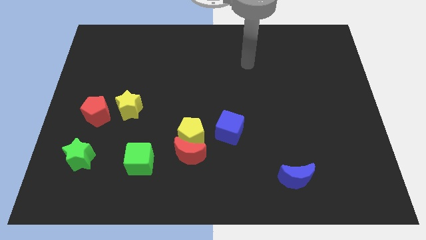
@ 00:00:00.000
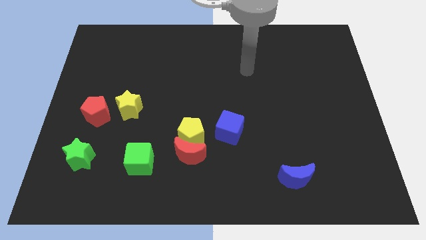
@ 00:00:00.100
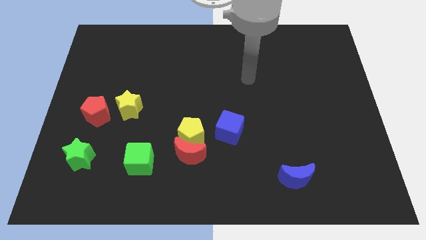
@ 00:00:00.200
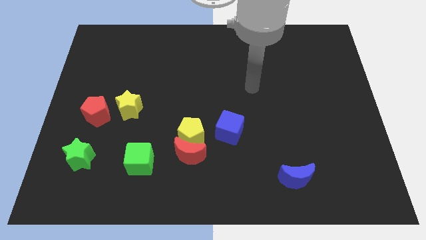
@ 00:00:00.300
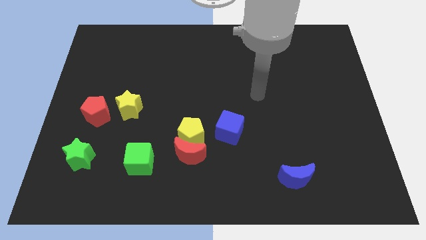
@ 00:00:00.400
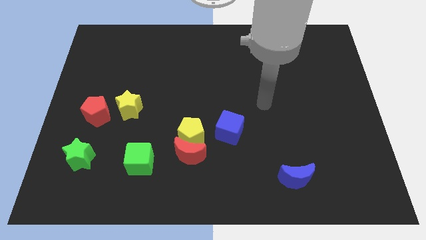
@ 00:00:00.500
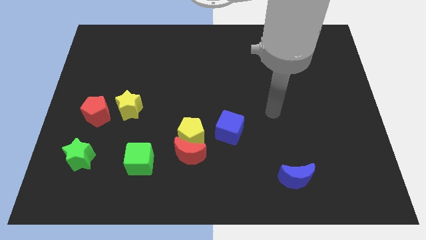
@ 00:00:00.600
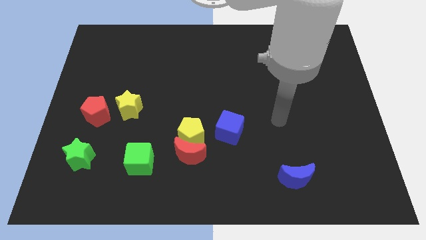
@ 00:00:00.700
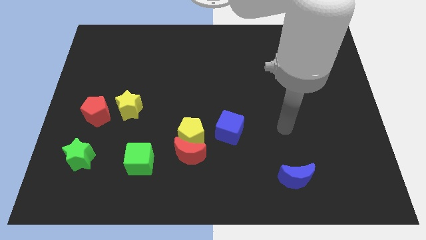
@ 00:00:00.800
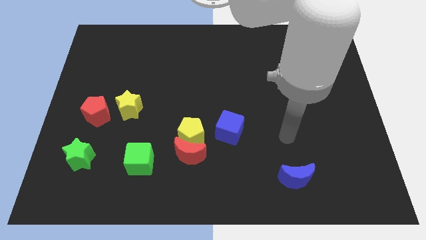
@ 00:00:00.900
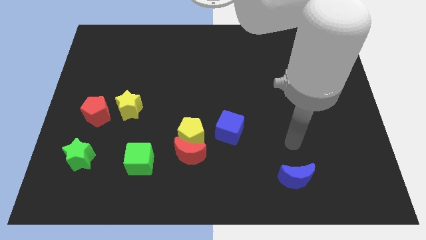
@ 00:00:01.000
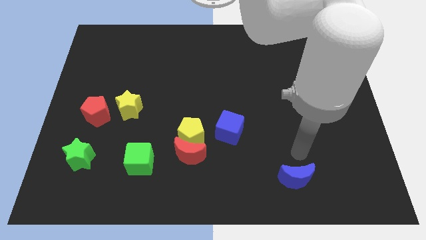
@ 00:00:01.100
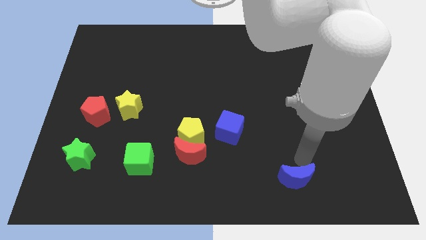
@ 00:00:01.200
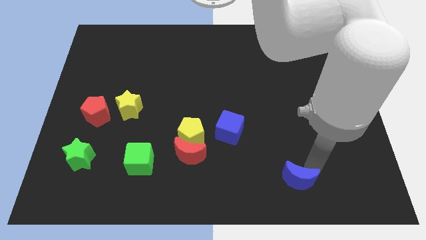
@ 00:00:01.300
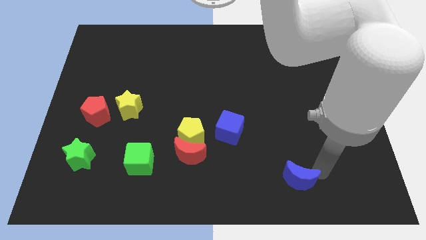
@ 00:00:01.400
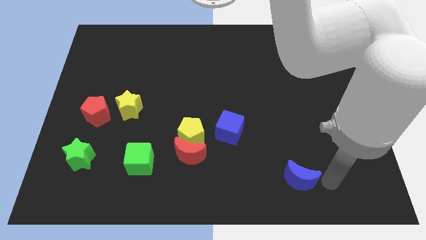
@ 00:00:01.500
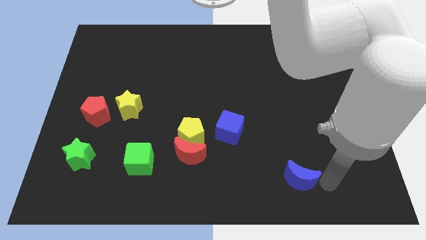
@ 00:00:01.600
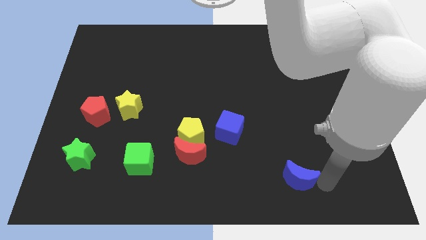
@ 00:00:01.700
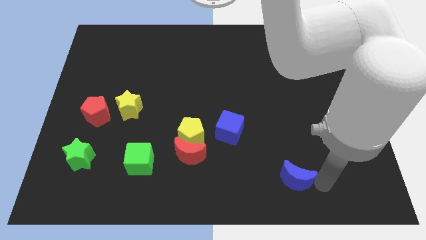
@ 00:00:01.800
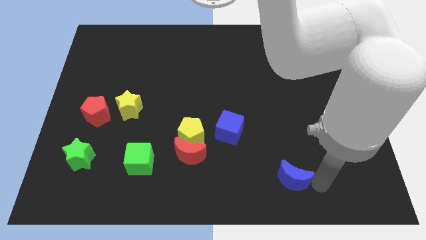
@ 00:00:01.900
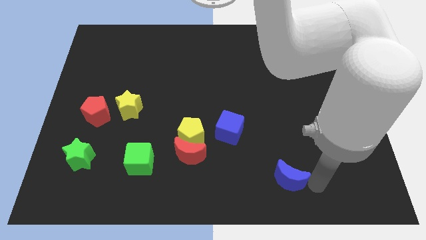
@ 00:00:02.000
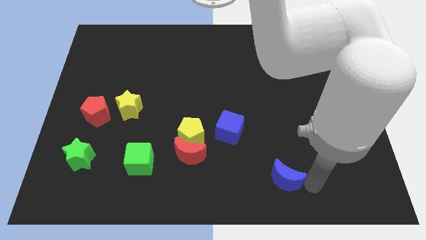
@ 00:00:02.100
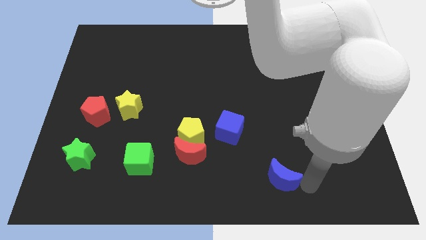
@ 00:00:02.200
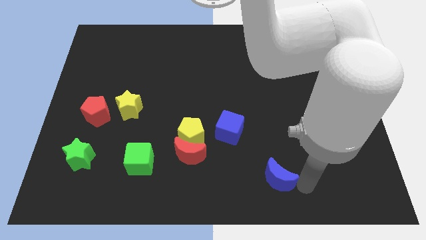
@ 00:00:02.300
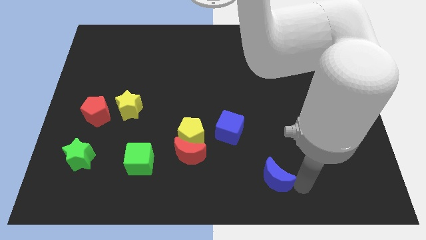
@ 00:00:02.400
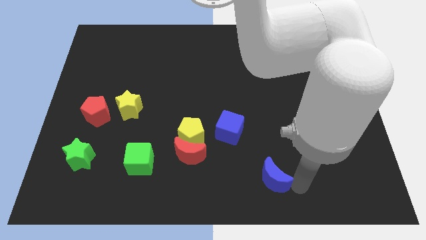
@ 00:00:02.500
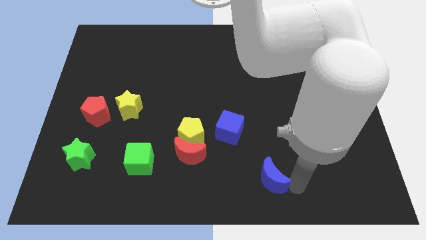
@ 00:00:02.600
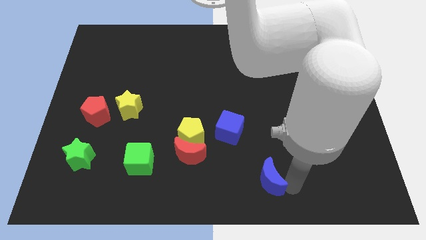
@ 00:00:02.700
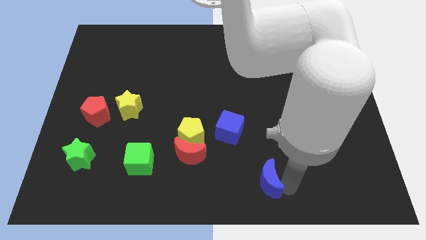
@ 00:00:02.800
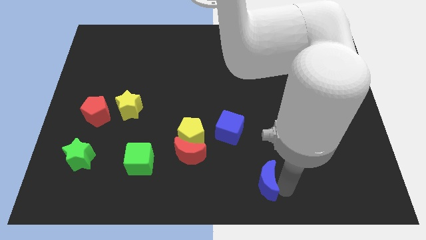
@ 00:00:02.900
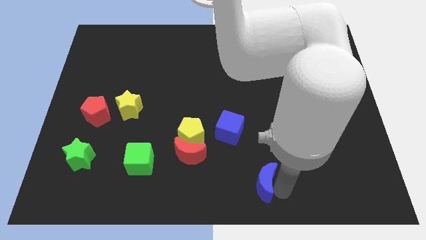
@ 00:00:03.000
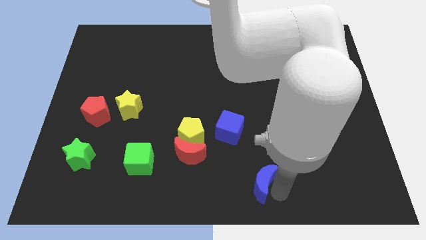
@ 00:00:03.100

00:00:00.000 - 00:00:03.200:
push the blue moon left slightly

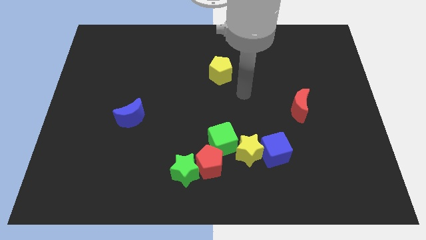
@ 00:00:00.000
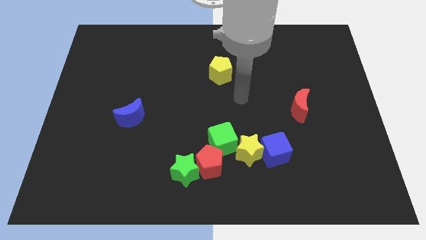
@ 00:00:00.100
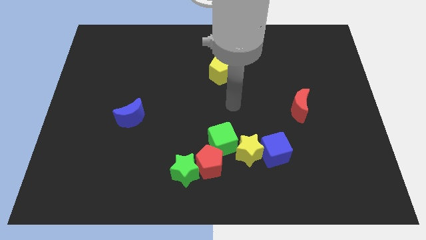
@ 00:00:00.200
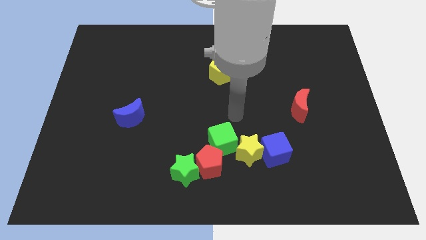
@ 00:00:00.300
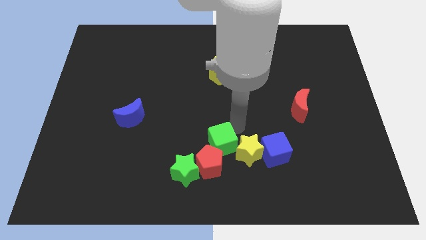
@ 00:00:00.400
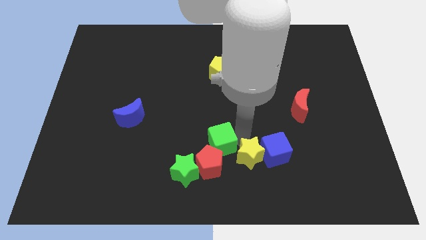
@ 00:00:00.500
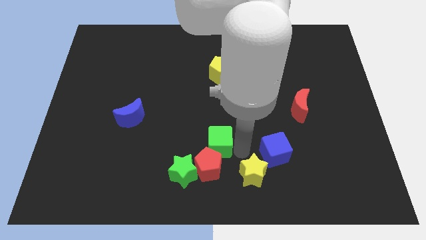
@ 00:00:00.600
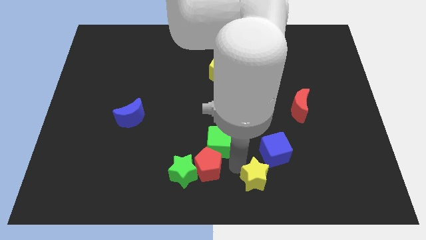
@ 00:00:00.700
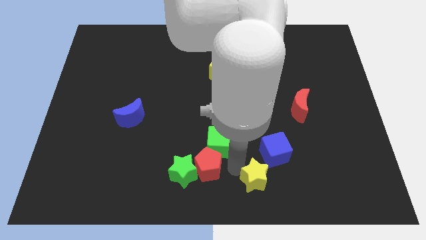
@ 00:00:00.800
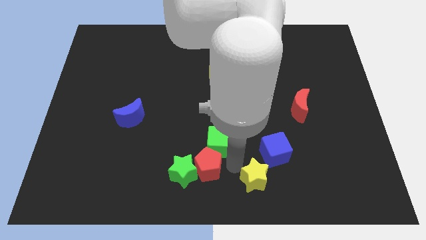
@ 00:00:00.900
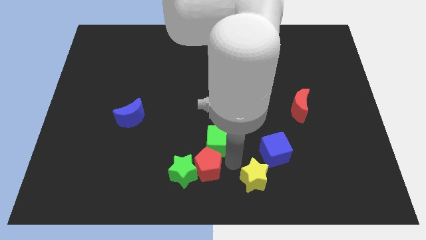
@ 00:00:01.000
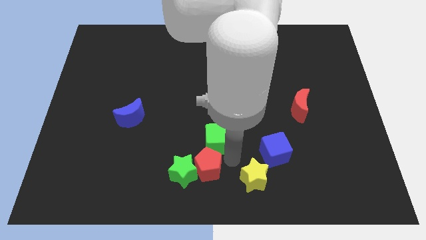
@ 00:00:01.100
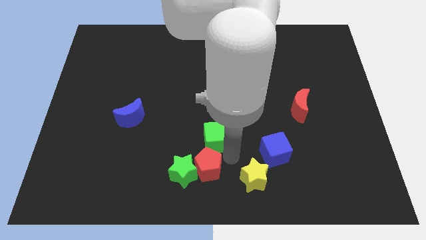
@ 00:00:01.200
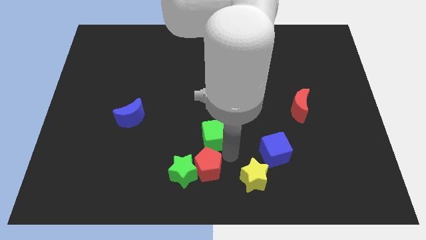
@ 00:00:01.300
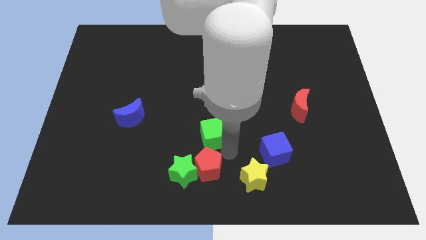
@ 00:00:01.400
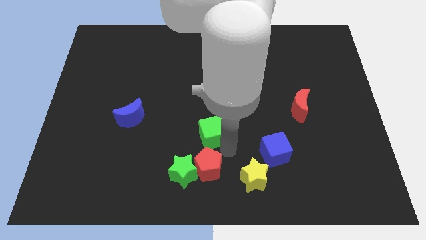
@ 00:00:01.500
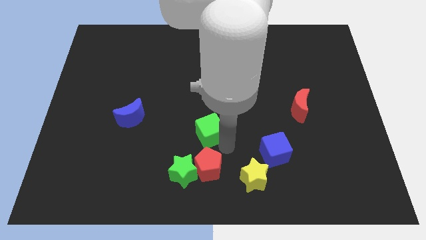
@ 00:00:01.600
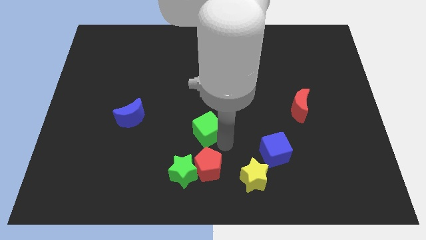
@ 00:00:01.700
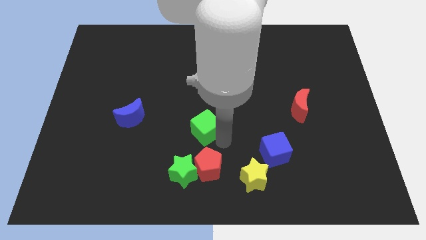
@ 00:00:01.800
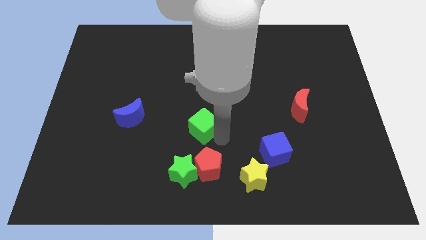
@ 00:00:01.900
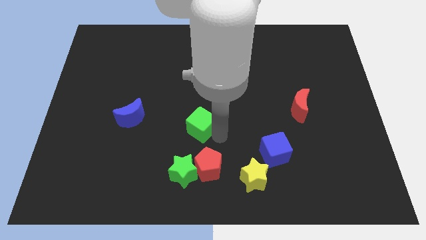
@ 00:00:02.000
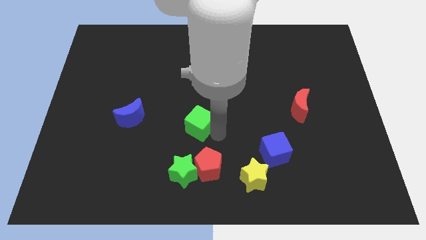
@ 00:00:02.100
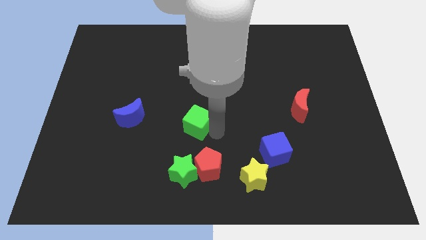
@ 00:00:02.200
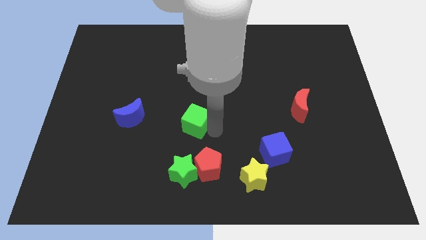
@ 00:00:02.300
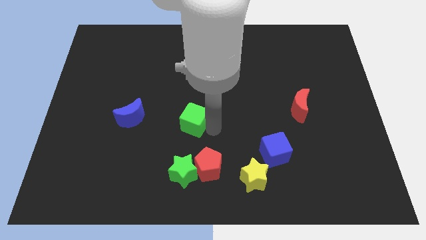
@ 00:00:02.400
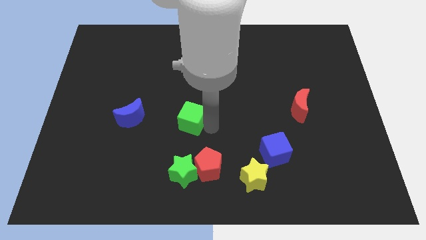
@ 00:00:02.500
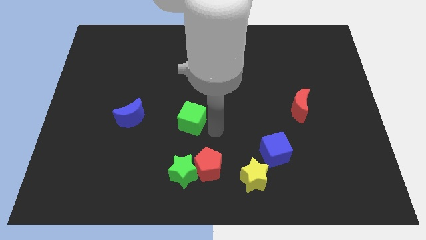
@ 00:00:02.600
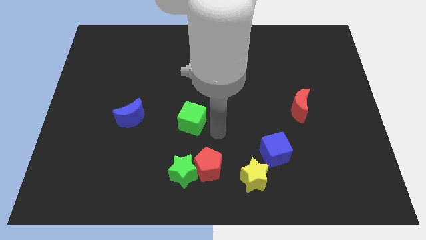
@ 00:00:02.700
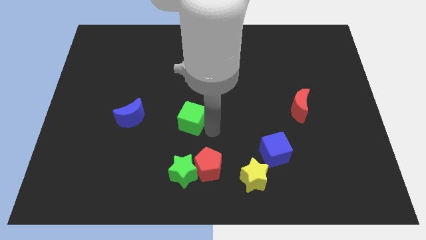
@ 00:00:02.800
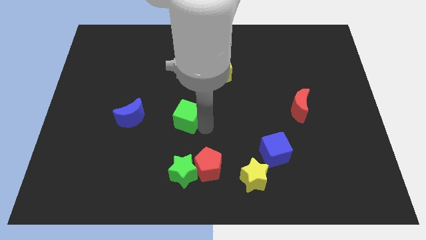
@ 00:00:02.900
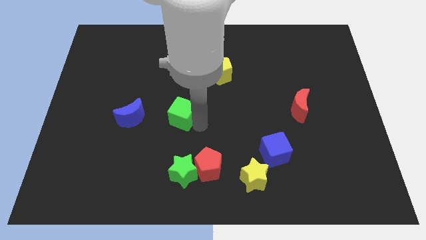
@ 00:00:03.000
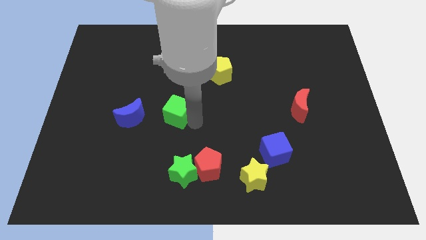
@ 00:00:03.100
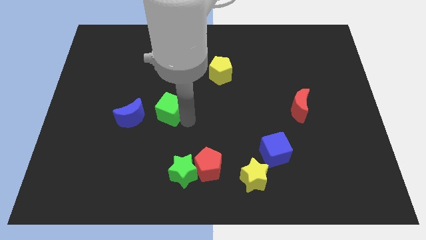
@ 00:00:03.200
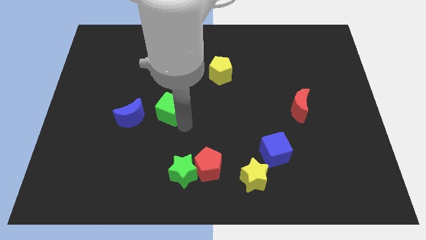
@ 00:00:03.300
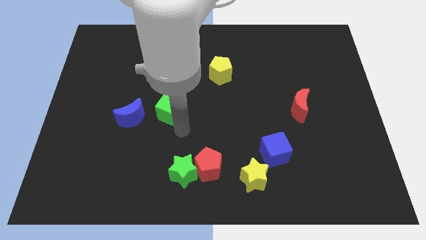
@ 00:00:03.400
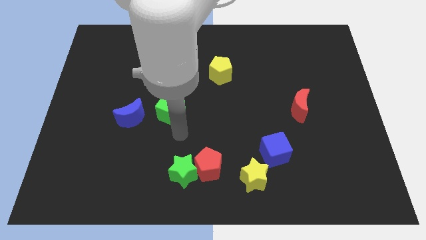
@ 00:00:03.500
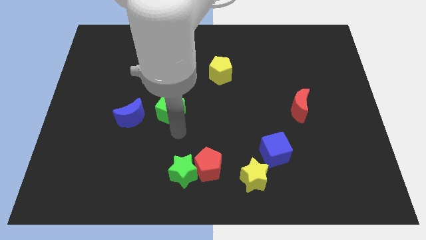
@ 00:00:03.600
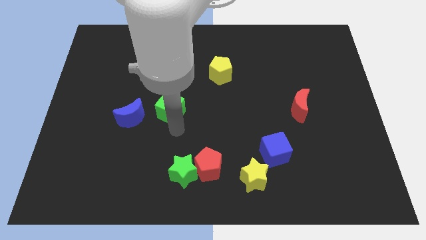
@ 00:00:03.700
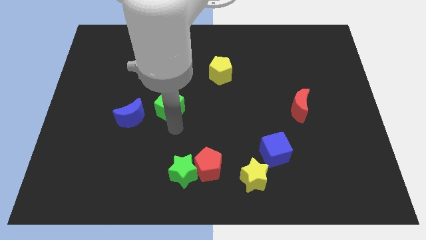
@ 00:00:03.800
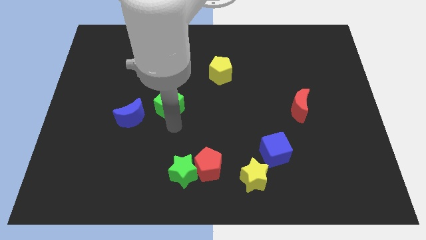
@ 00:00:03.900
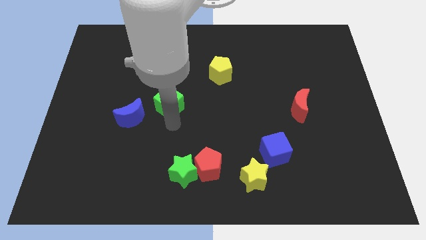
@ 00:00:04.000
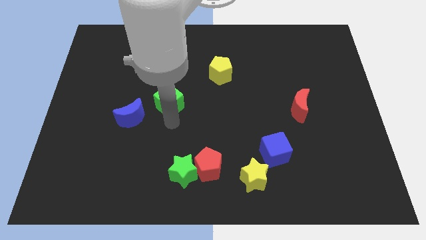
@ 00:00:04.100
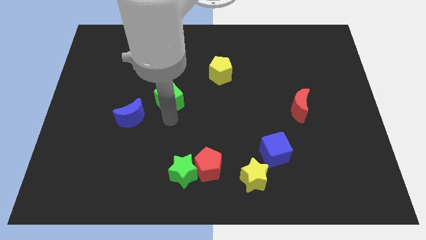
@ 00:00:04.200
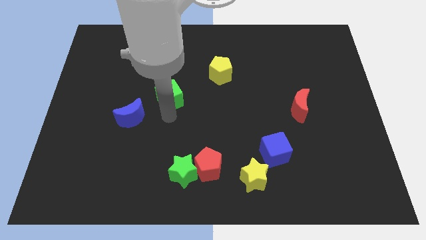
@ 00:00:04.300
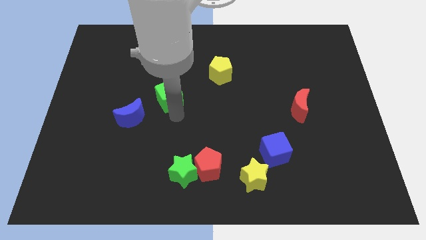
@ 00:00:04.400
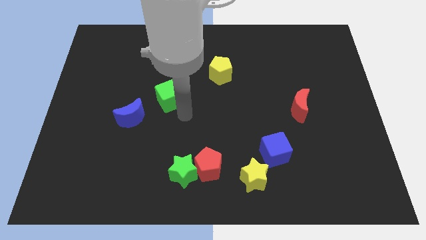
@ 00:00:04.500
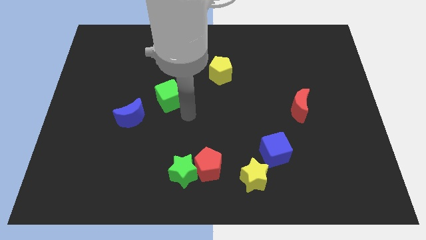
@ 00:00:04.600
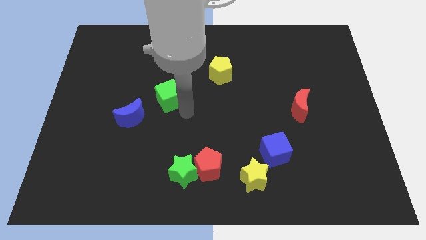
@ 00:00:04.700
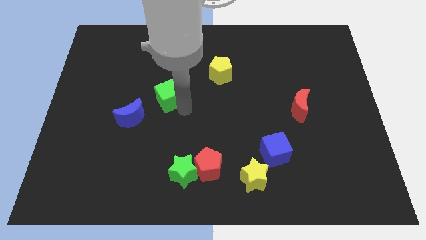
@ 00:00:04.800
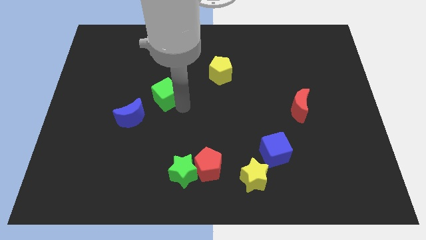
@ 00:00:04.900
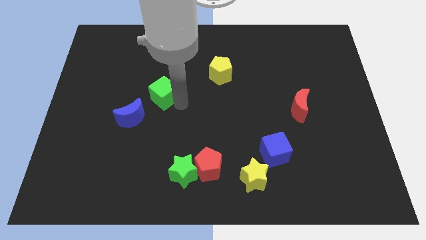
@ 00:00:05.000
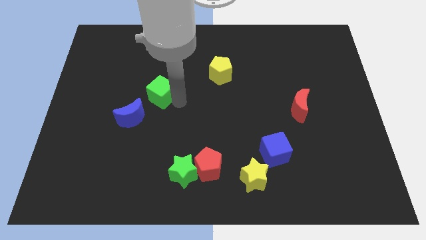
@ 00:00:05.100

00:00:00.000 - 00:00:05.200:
move the green cube diagonally up and left
